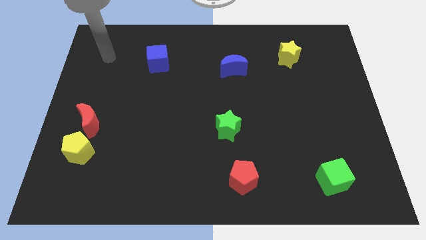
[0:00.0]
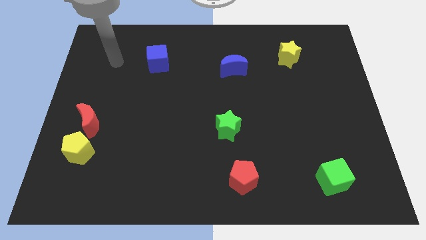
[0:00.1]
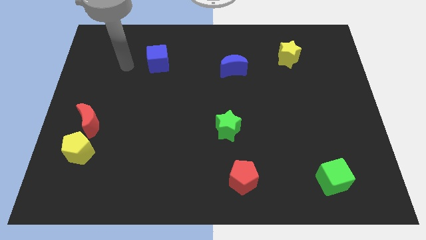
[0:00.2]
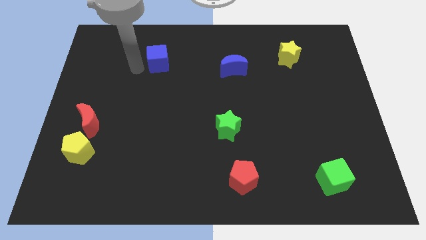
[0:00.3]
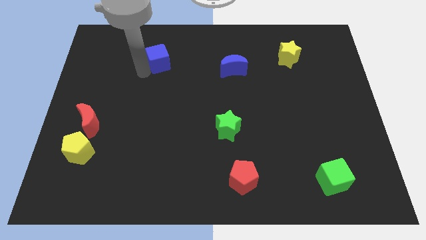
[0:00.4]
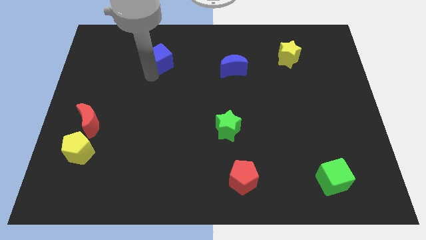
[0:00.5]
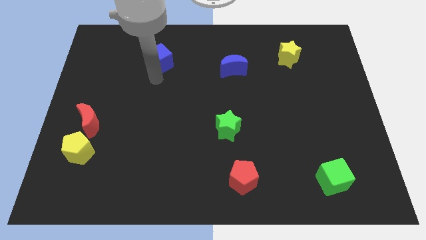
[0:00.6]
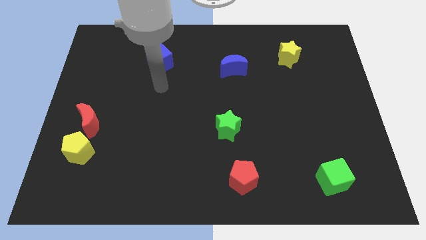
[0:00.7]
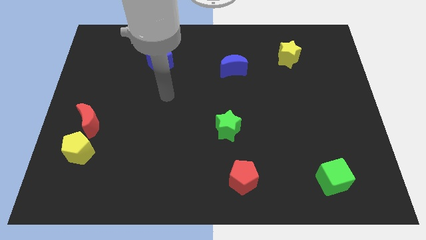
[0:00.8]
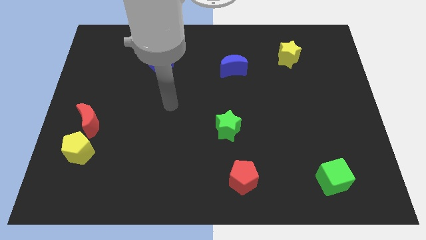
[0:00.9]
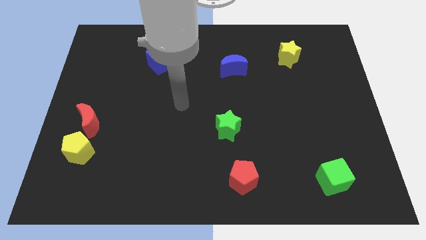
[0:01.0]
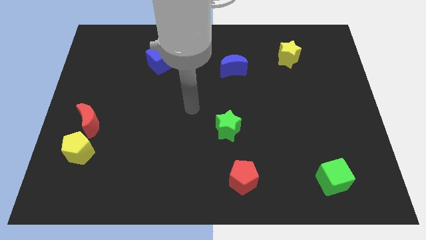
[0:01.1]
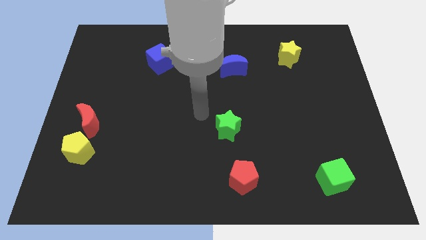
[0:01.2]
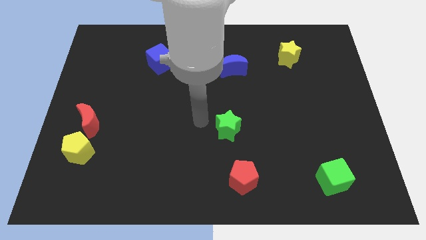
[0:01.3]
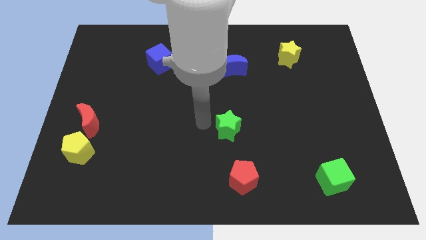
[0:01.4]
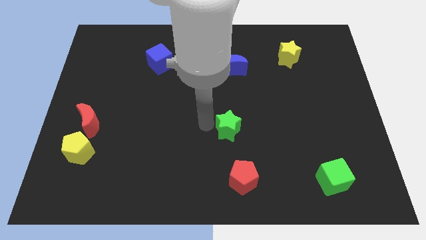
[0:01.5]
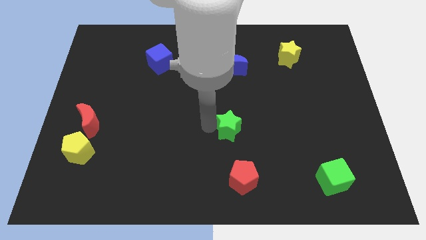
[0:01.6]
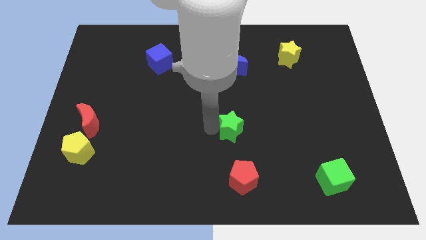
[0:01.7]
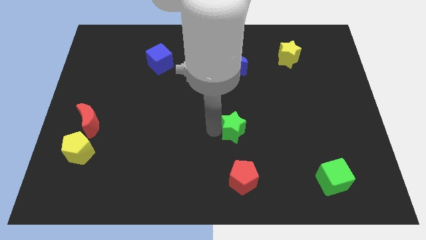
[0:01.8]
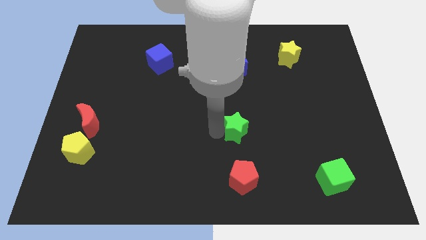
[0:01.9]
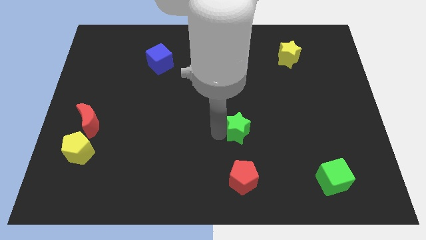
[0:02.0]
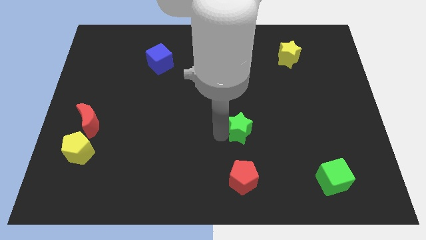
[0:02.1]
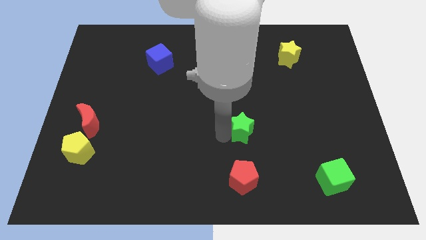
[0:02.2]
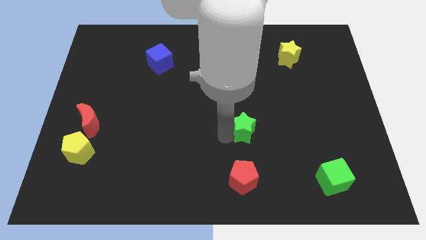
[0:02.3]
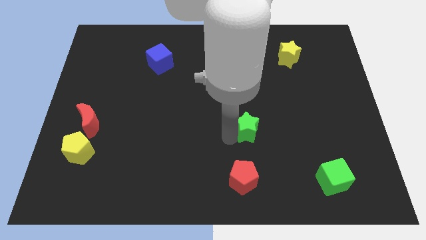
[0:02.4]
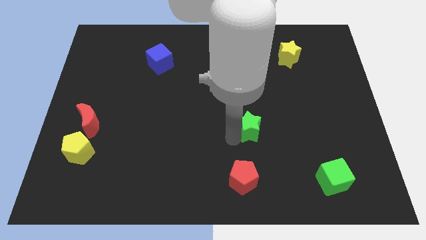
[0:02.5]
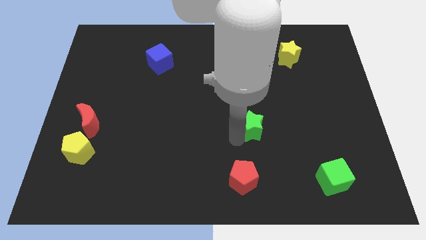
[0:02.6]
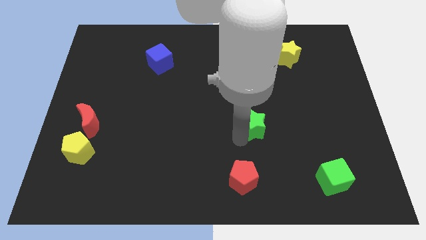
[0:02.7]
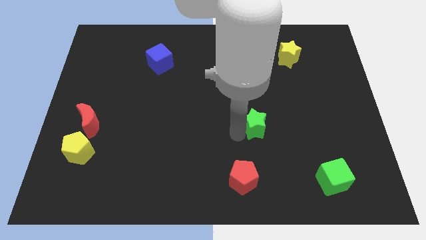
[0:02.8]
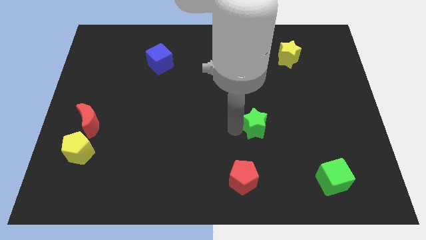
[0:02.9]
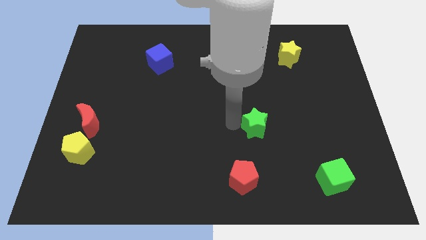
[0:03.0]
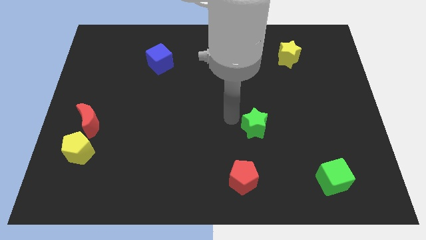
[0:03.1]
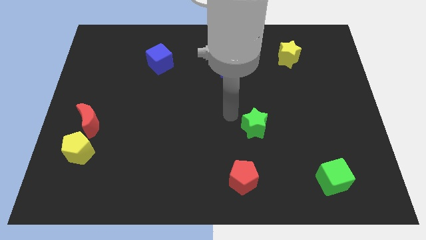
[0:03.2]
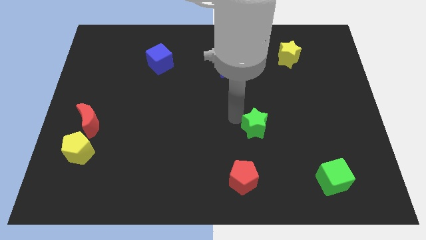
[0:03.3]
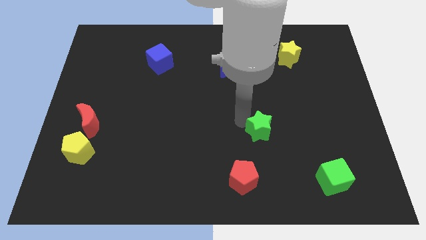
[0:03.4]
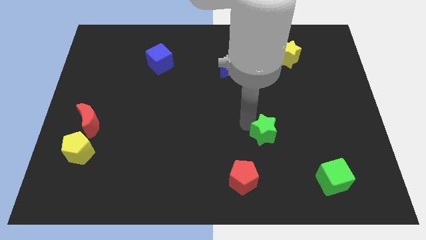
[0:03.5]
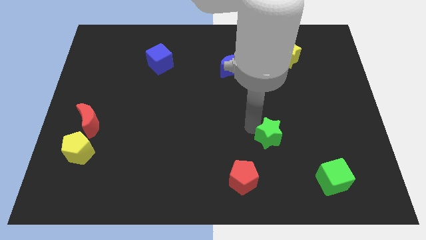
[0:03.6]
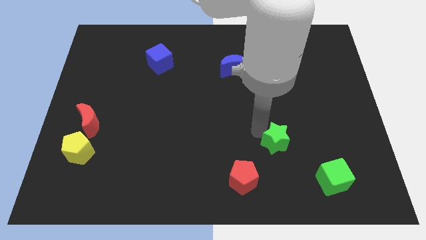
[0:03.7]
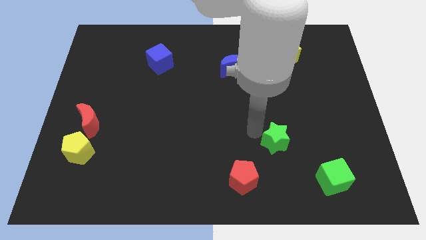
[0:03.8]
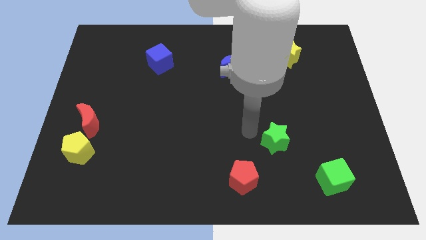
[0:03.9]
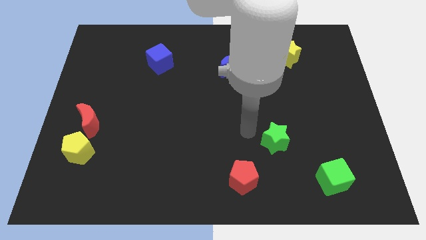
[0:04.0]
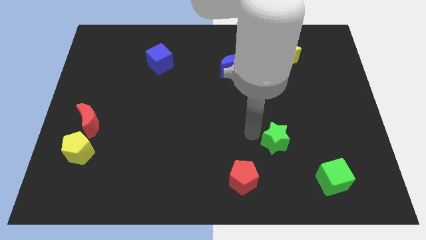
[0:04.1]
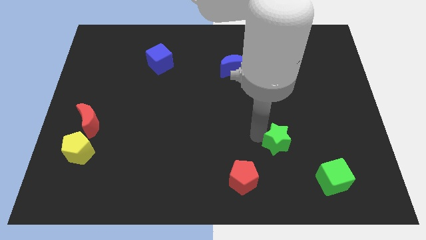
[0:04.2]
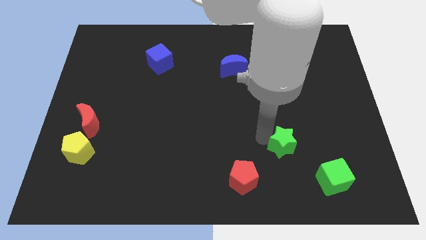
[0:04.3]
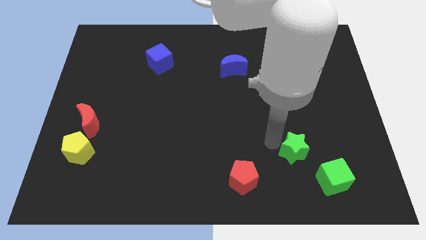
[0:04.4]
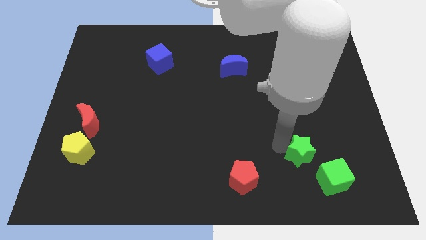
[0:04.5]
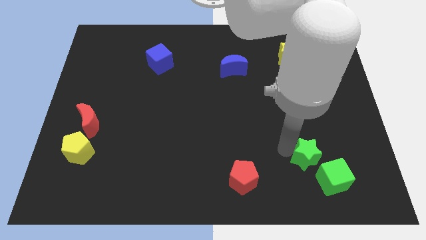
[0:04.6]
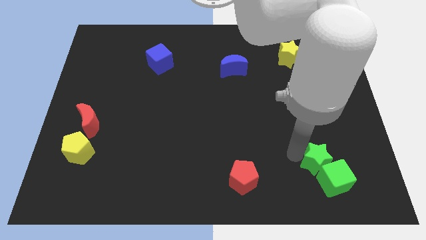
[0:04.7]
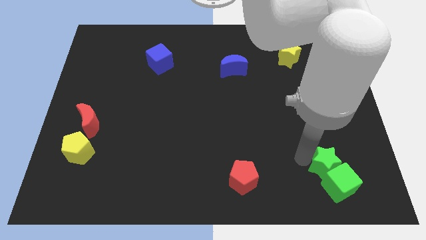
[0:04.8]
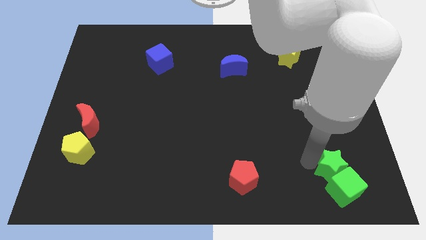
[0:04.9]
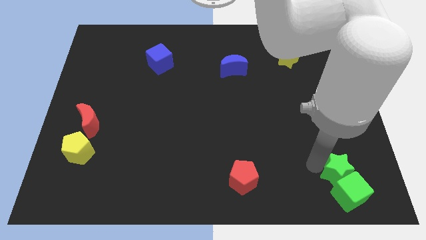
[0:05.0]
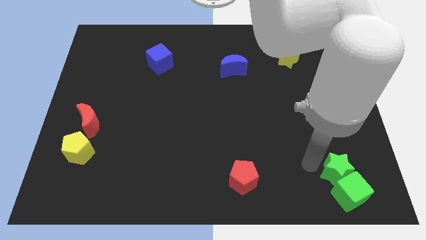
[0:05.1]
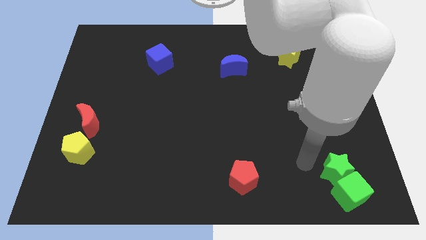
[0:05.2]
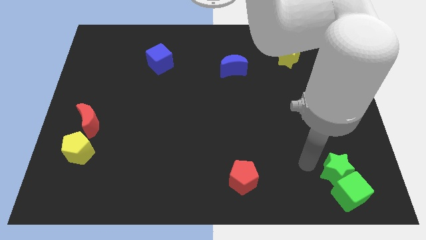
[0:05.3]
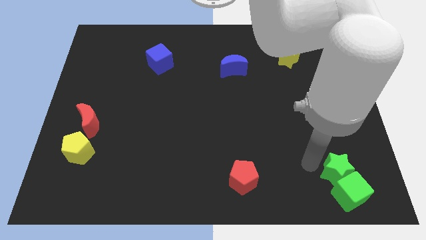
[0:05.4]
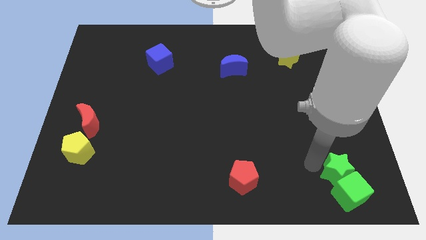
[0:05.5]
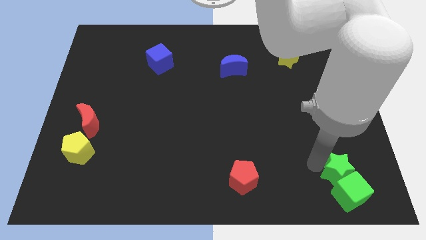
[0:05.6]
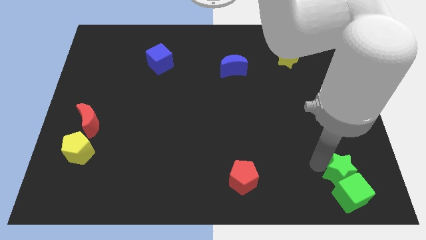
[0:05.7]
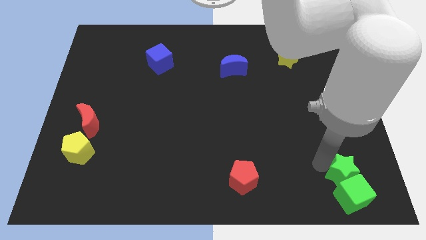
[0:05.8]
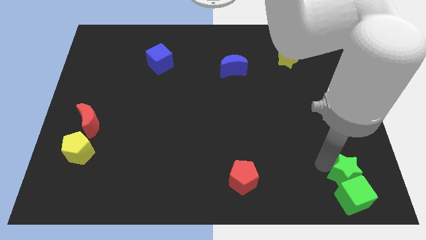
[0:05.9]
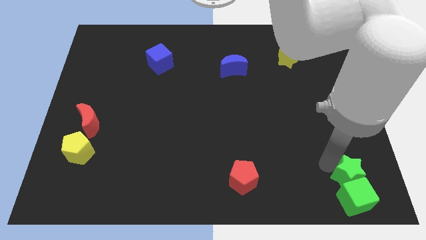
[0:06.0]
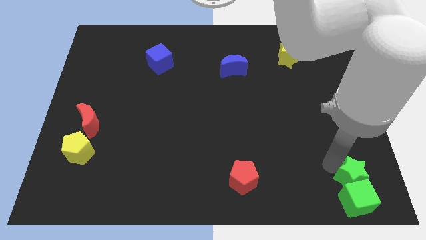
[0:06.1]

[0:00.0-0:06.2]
put the green star to the lower right corner
